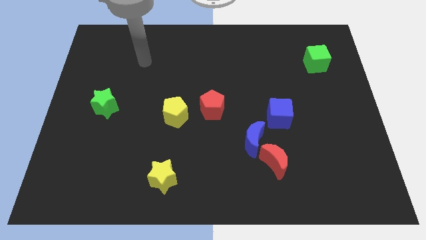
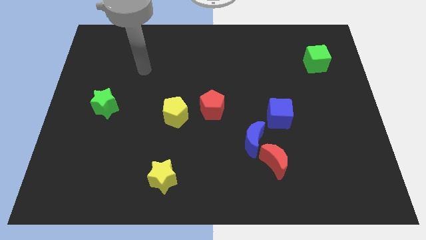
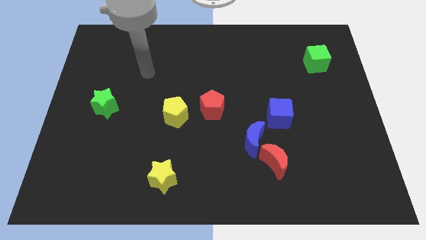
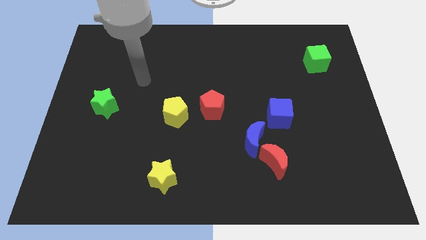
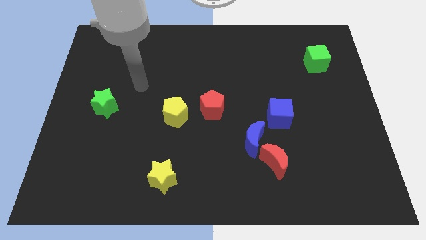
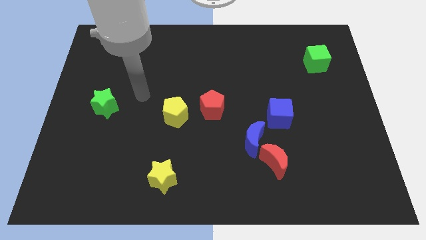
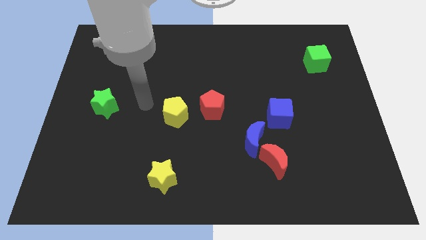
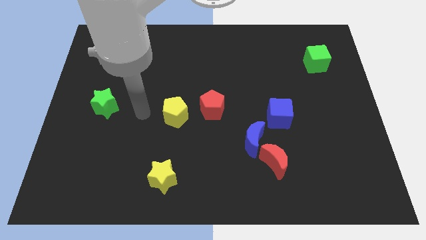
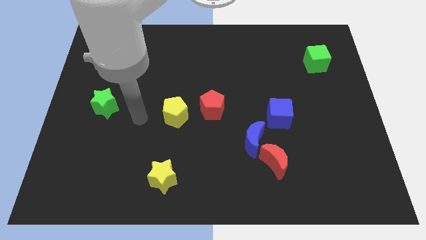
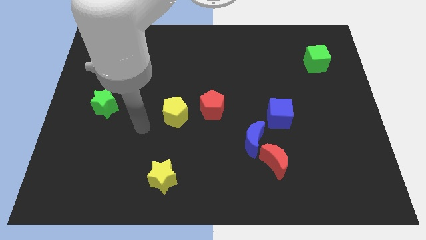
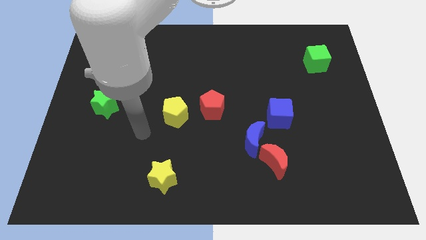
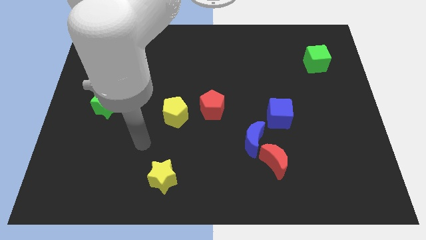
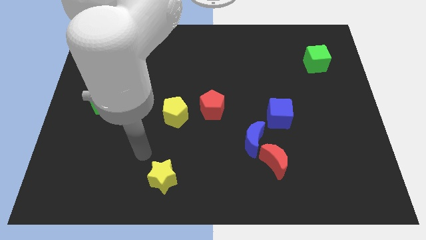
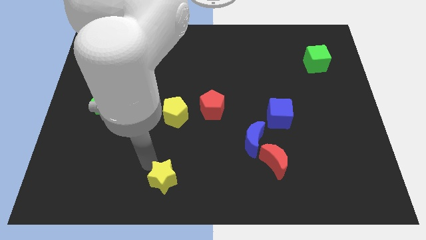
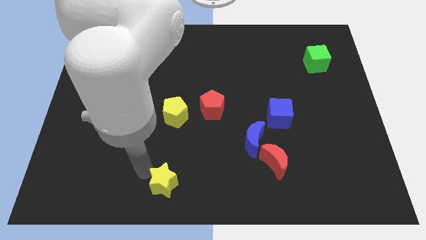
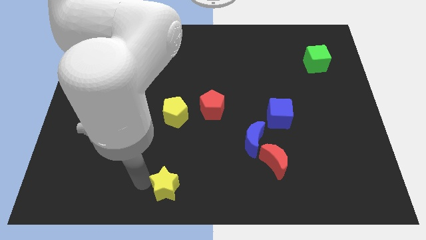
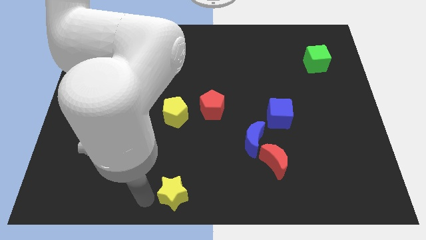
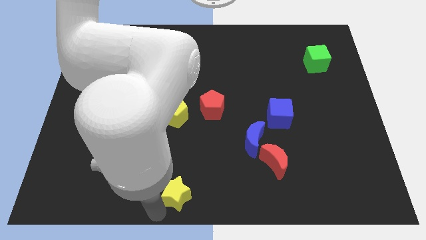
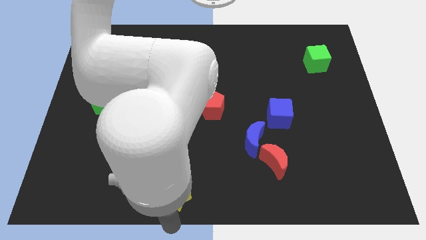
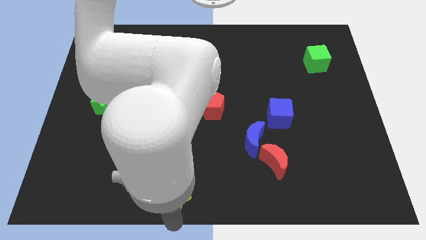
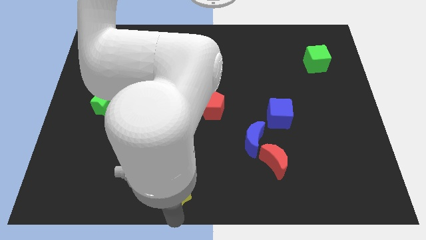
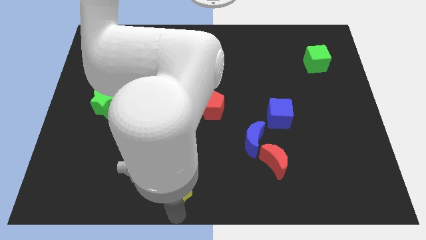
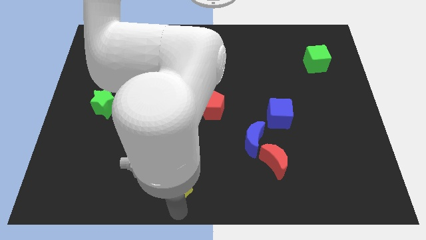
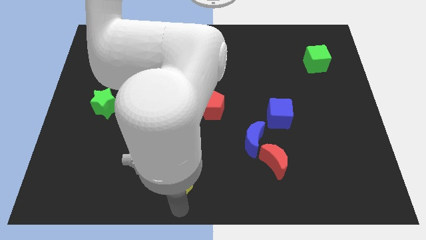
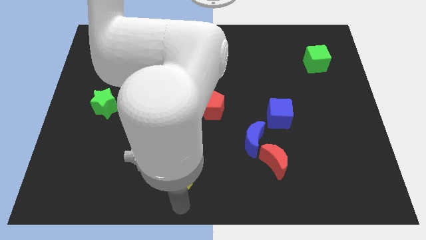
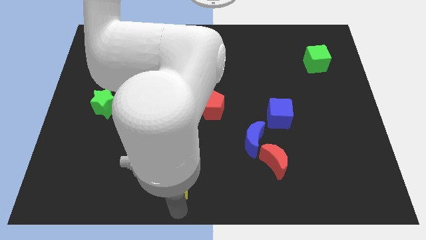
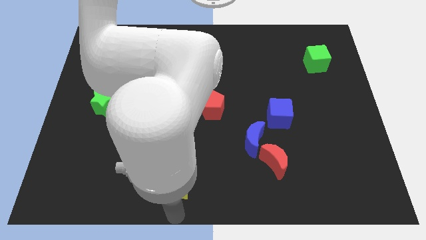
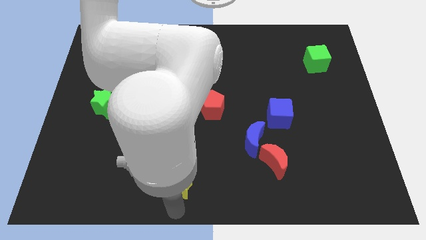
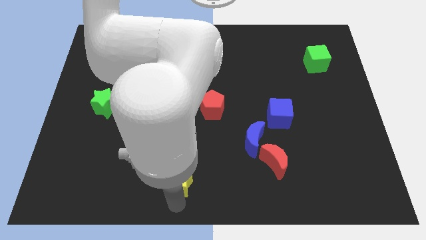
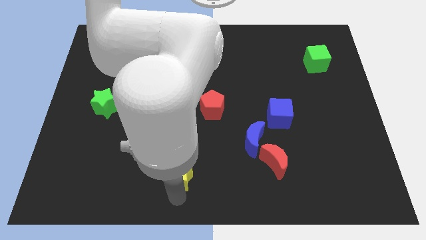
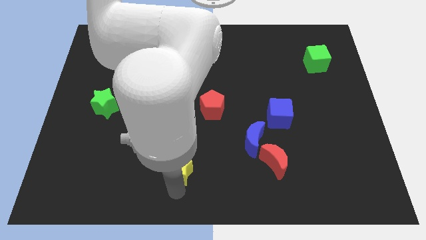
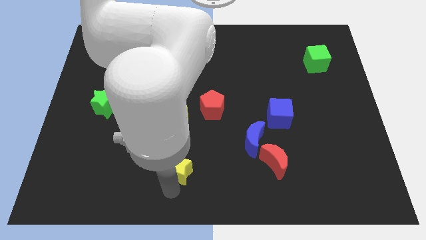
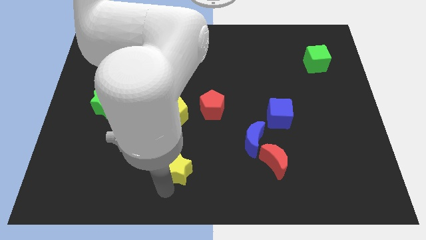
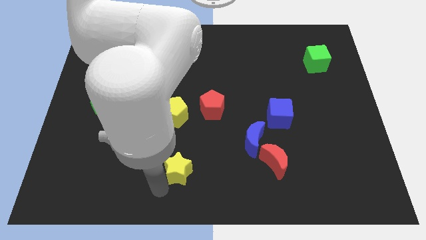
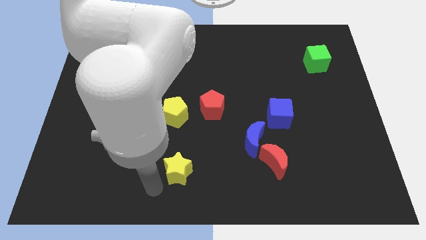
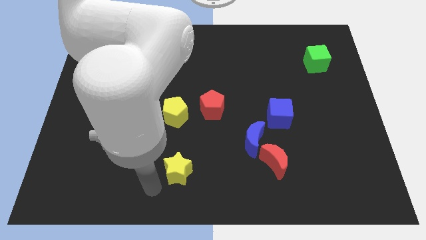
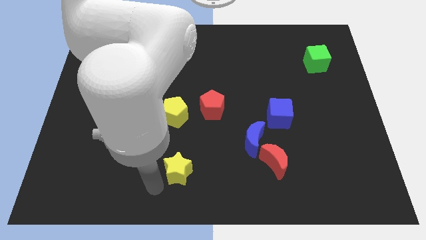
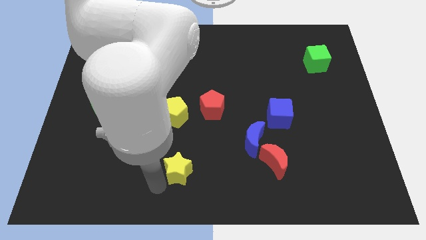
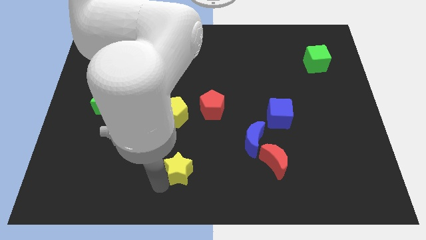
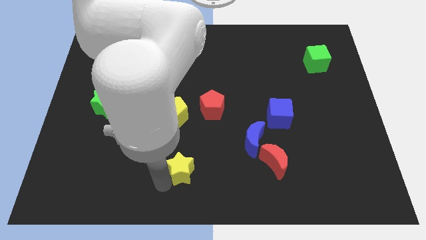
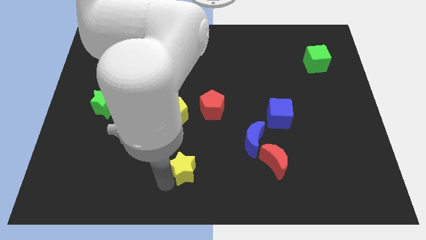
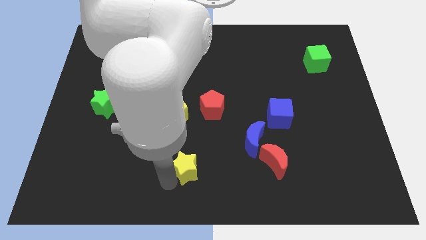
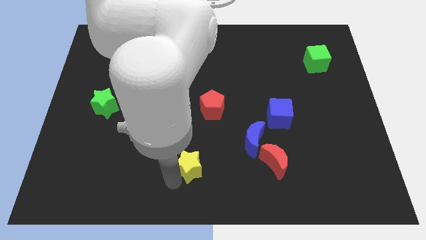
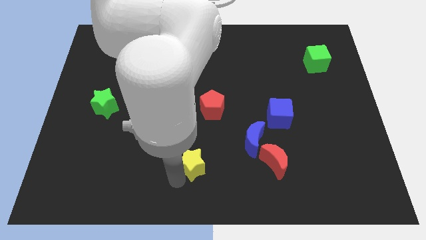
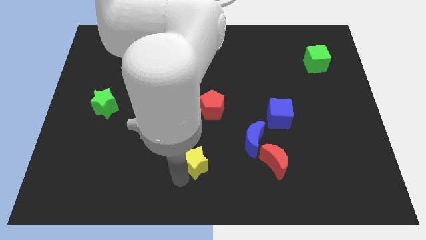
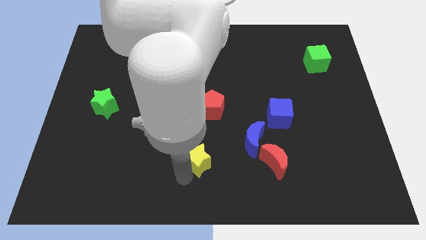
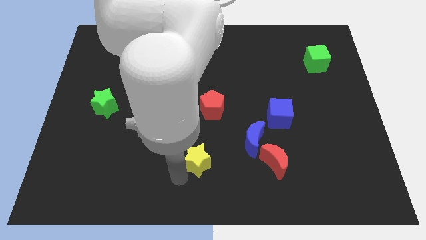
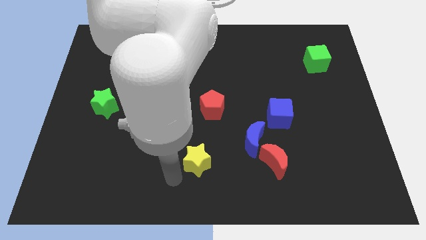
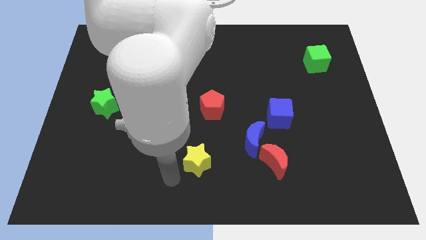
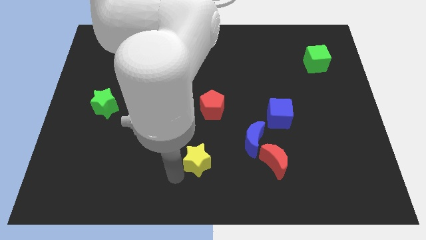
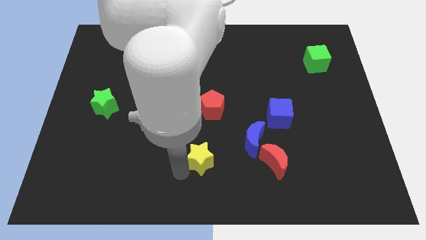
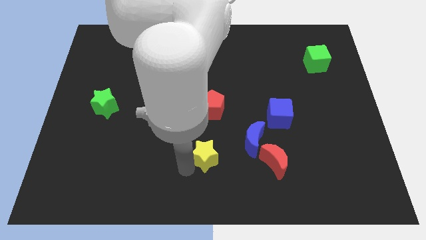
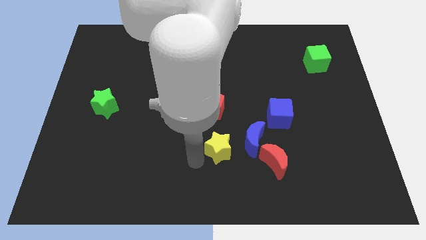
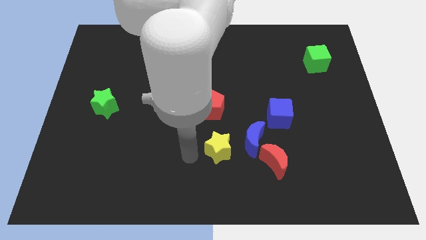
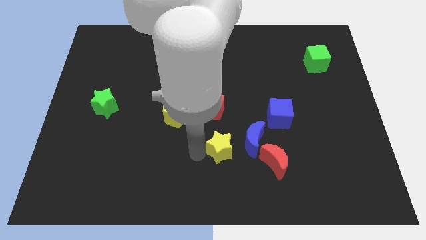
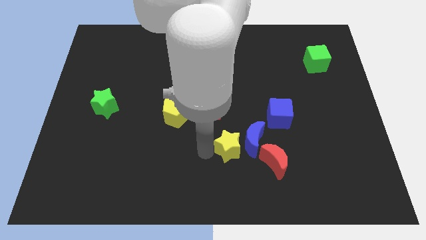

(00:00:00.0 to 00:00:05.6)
push the yellow star towards the blue moon

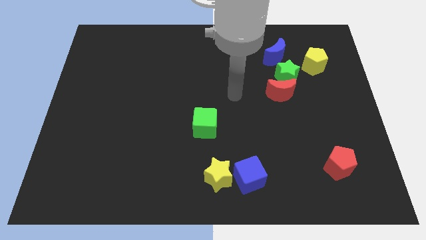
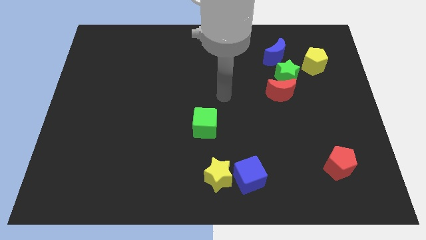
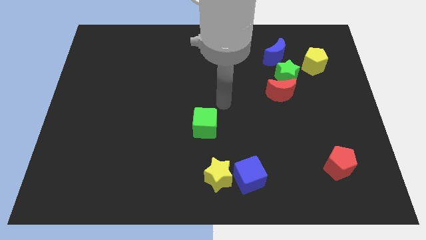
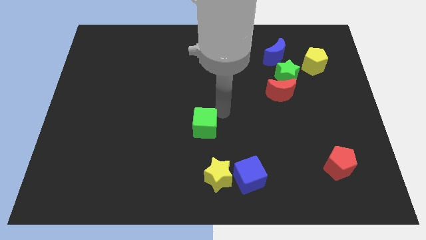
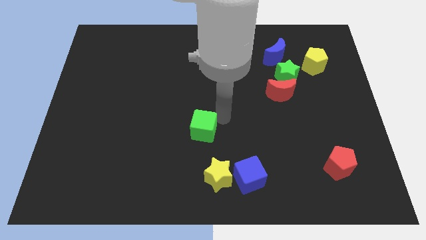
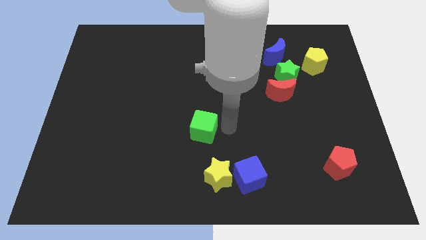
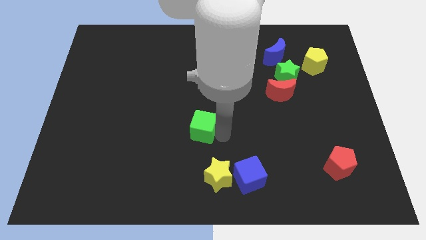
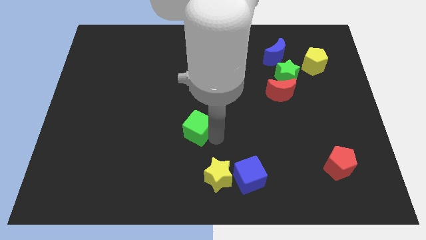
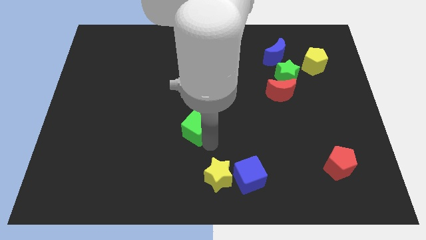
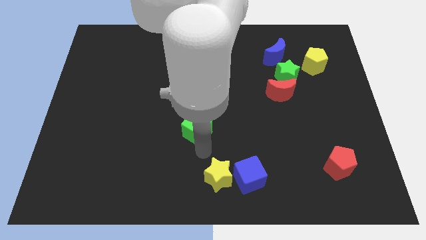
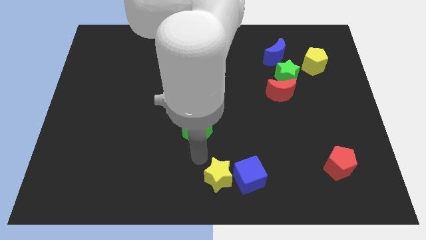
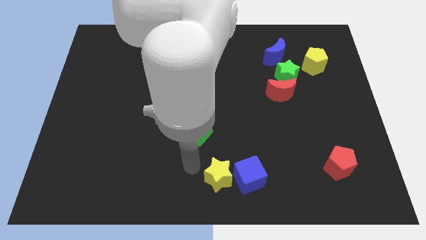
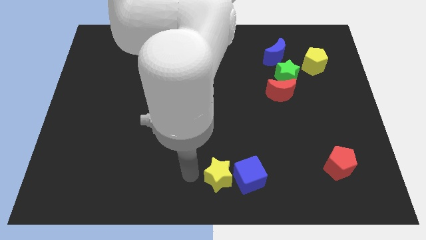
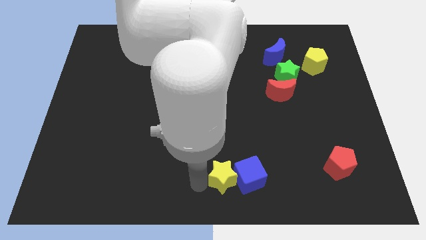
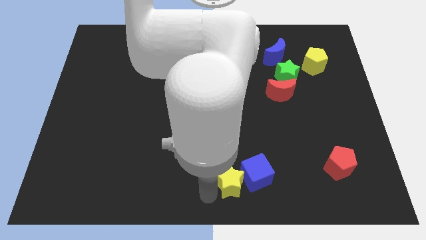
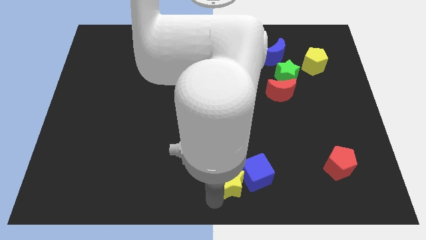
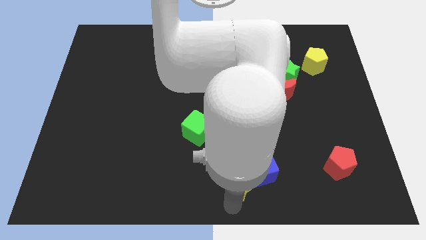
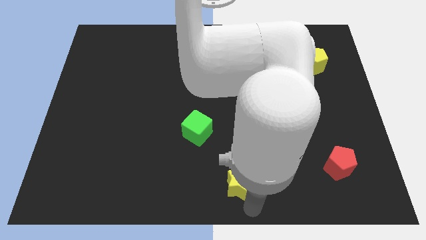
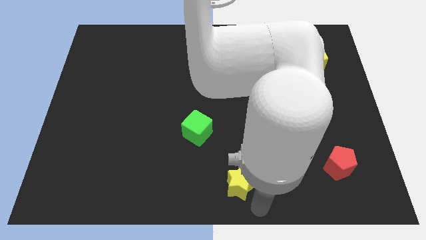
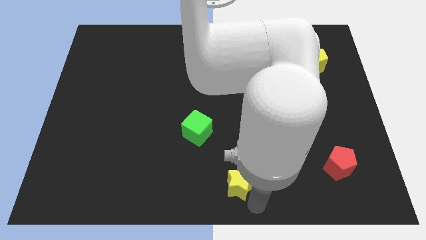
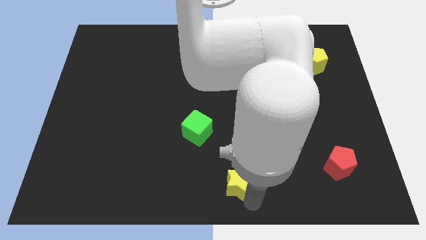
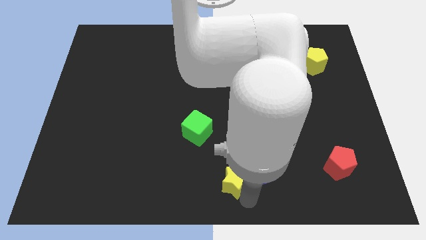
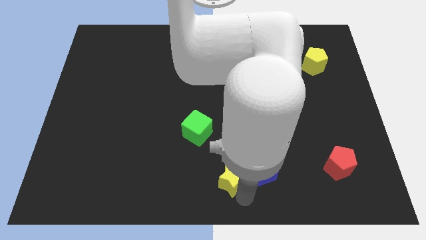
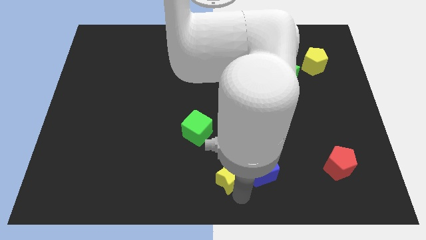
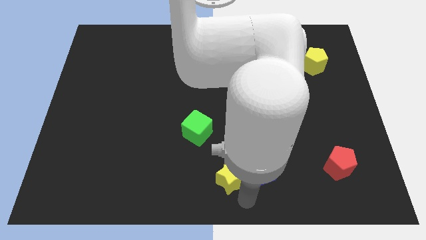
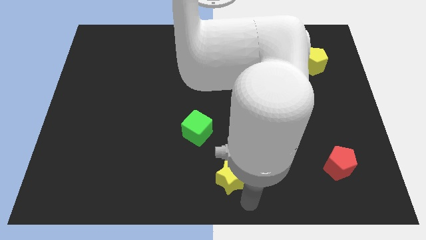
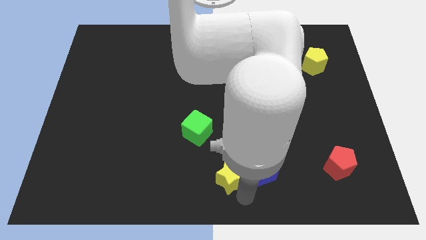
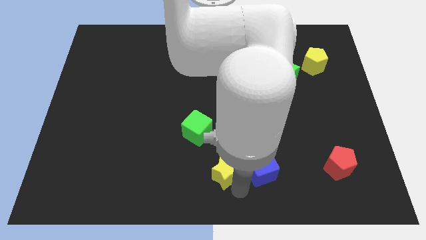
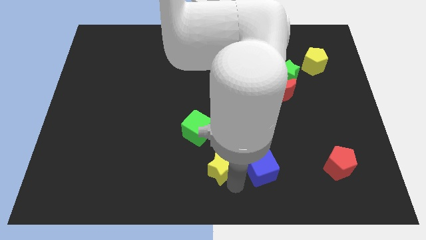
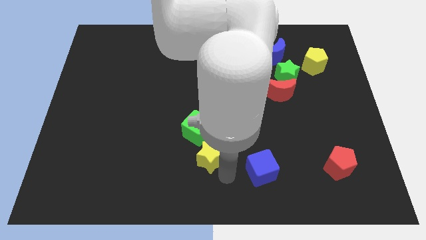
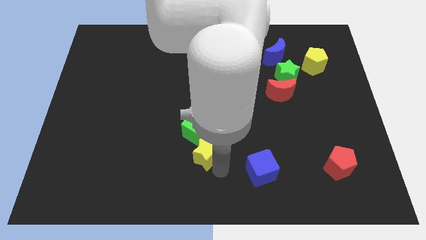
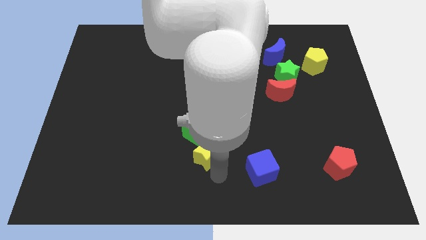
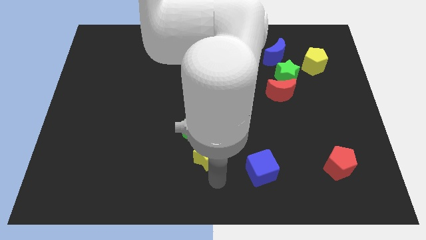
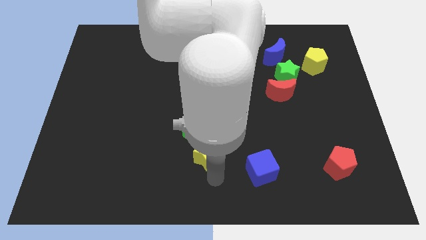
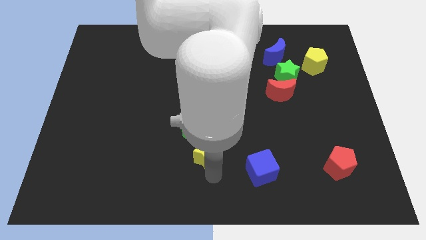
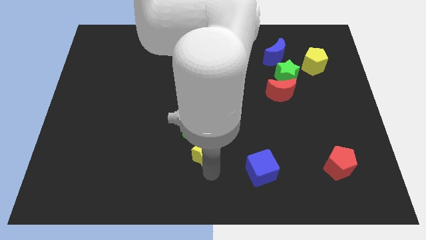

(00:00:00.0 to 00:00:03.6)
put the yellow star towards the green cube
